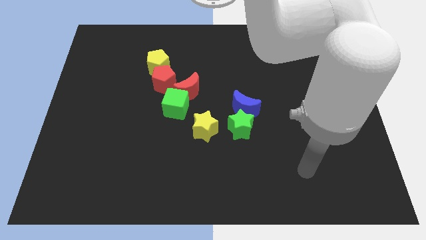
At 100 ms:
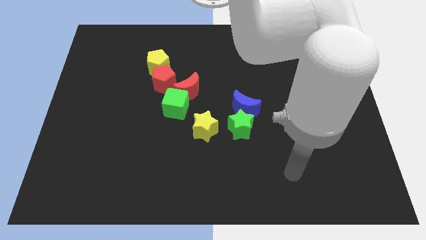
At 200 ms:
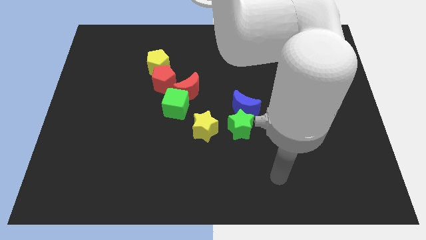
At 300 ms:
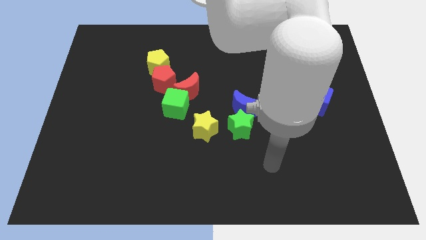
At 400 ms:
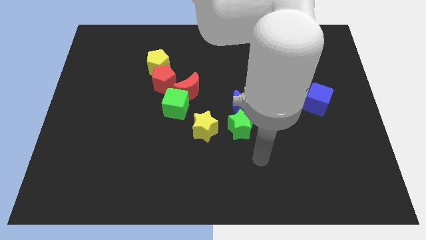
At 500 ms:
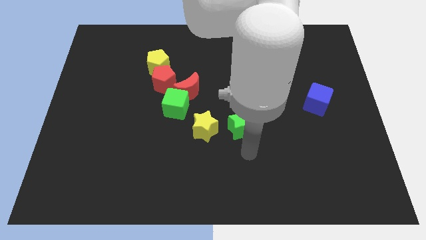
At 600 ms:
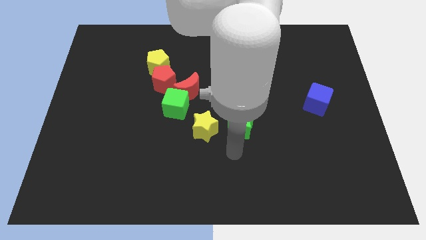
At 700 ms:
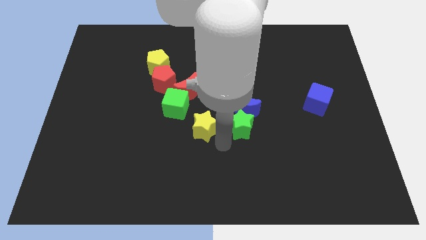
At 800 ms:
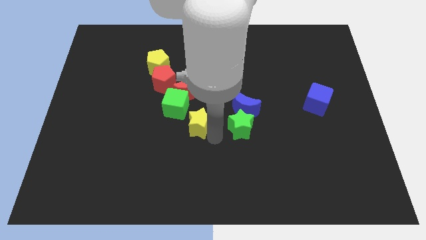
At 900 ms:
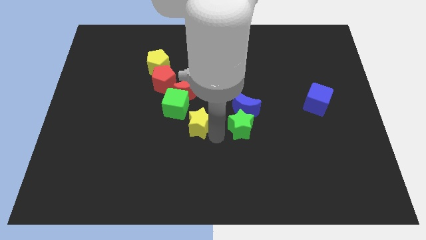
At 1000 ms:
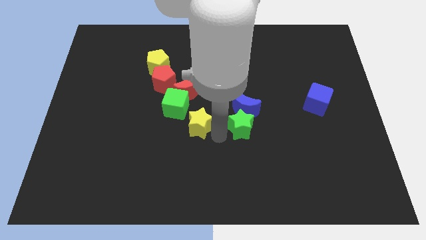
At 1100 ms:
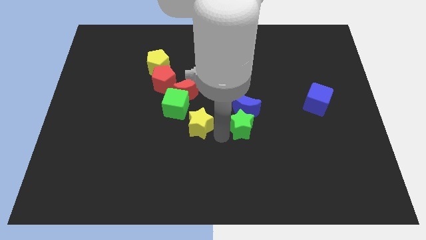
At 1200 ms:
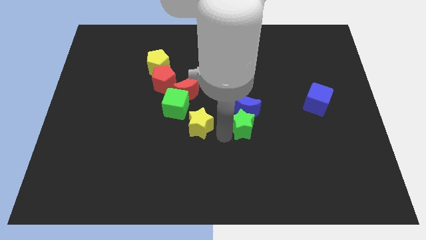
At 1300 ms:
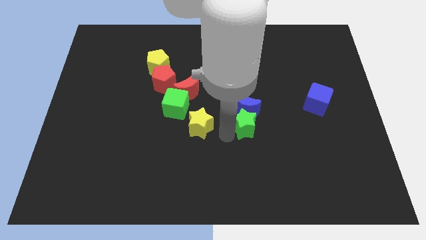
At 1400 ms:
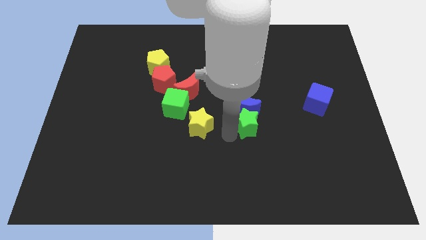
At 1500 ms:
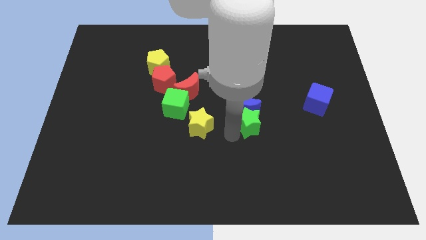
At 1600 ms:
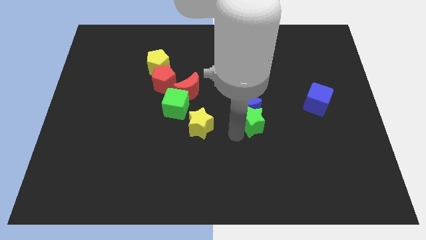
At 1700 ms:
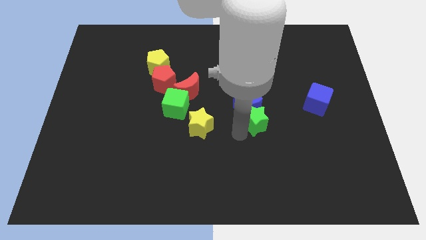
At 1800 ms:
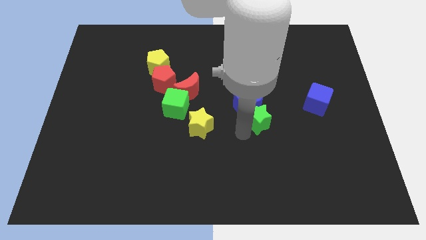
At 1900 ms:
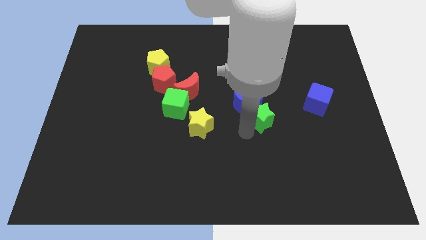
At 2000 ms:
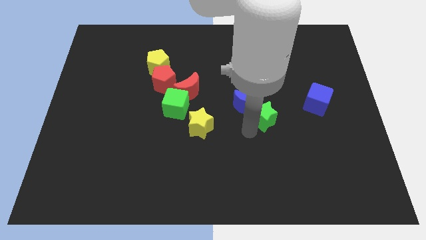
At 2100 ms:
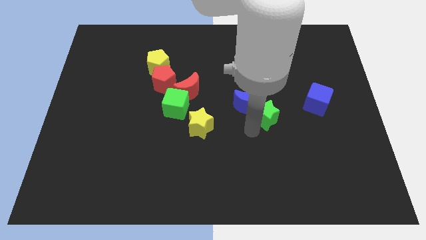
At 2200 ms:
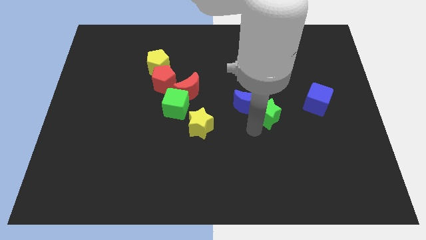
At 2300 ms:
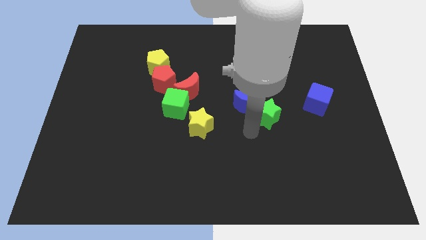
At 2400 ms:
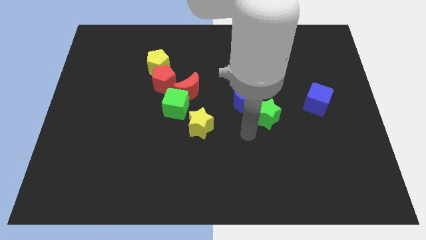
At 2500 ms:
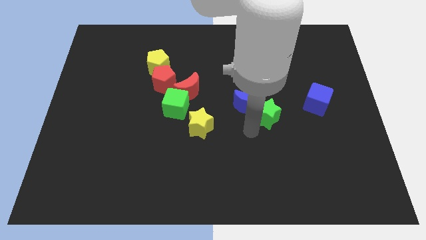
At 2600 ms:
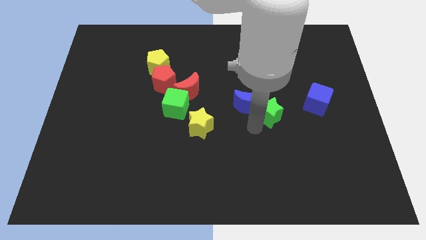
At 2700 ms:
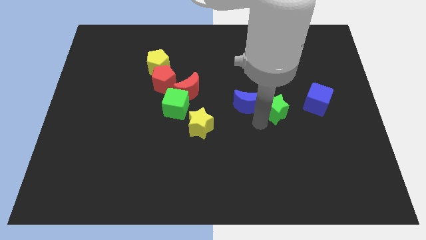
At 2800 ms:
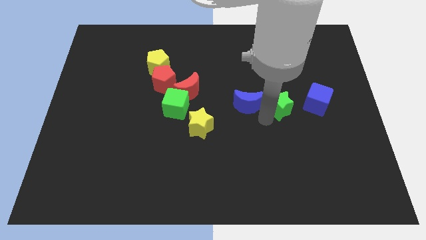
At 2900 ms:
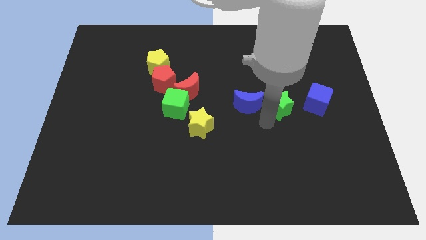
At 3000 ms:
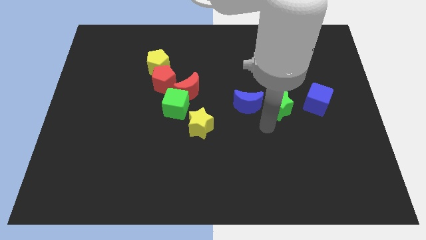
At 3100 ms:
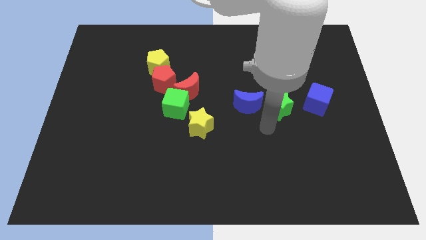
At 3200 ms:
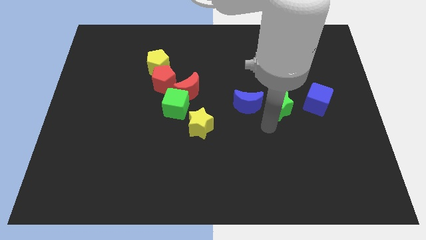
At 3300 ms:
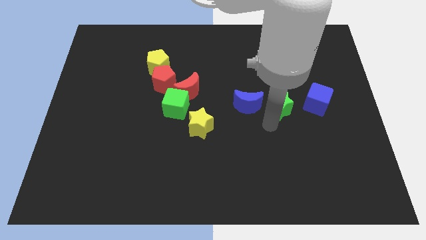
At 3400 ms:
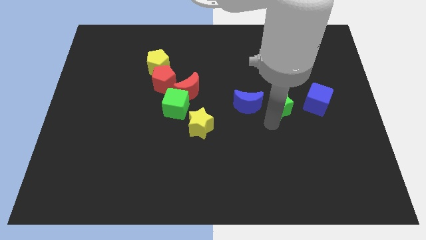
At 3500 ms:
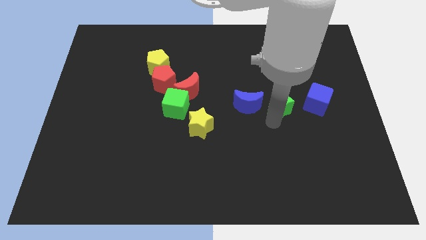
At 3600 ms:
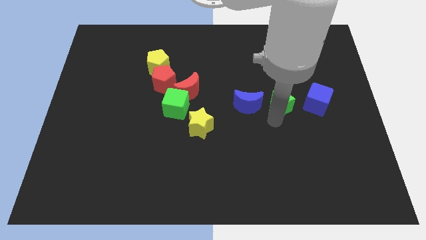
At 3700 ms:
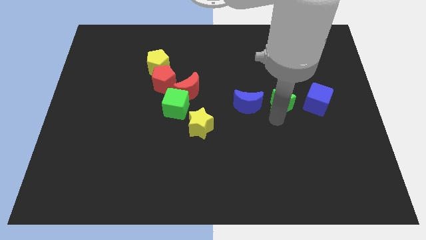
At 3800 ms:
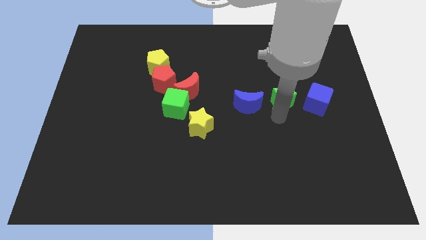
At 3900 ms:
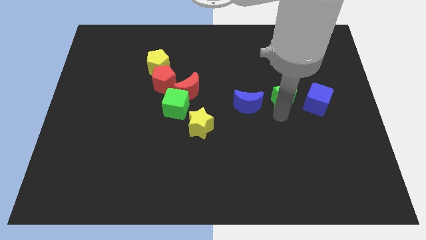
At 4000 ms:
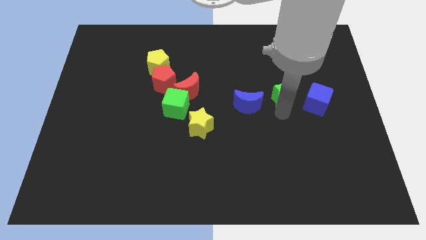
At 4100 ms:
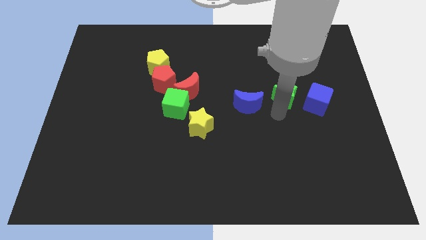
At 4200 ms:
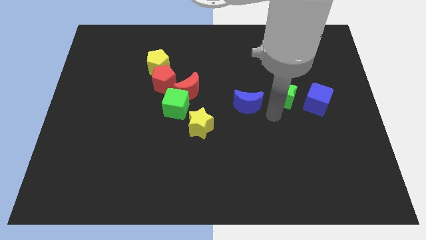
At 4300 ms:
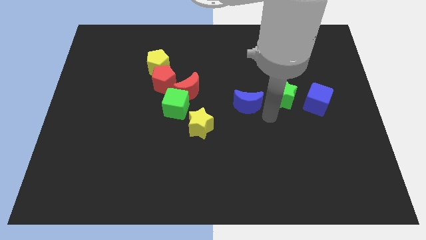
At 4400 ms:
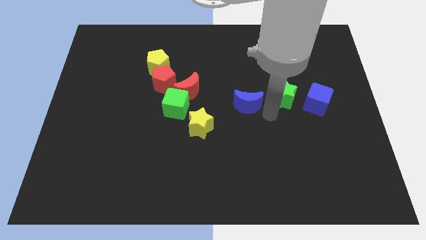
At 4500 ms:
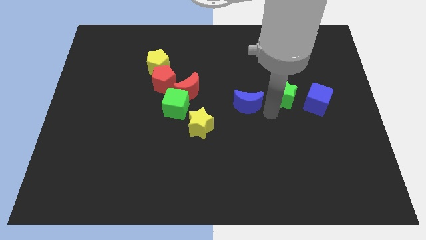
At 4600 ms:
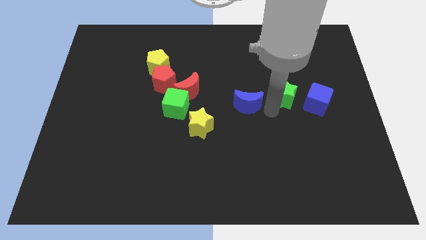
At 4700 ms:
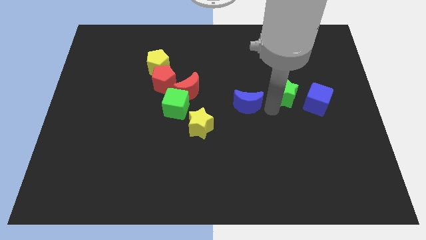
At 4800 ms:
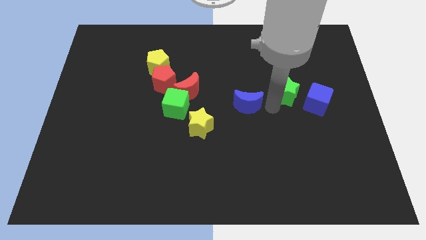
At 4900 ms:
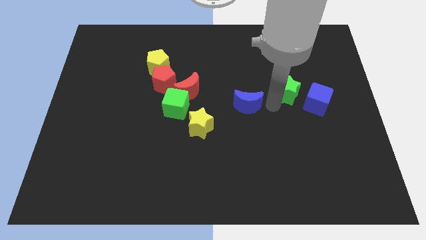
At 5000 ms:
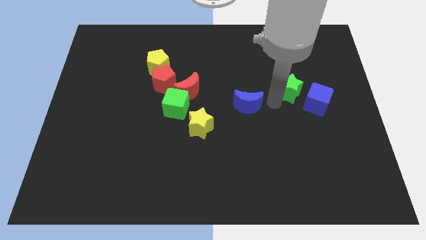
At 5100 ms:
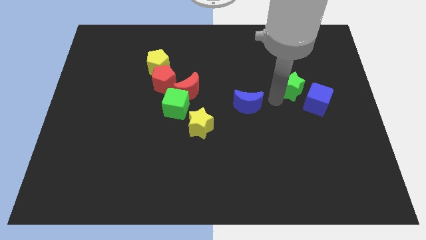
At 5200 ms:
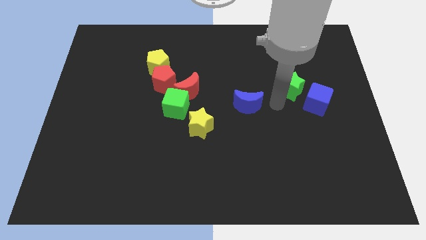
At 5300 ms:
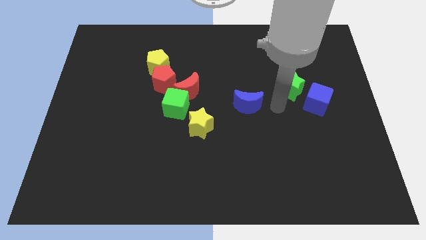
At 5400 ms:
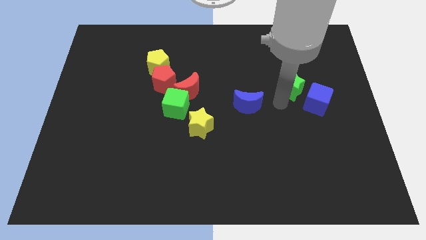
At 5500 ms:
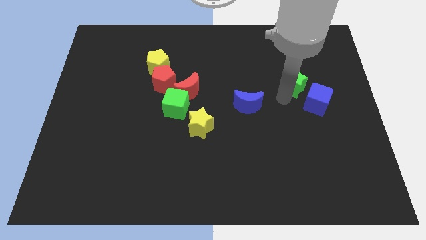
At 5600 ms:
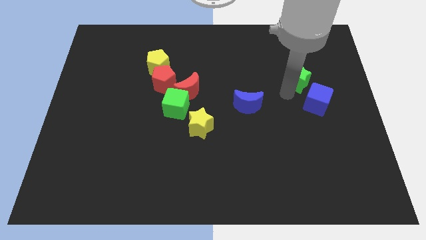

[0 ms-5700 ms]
move the green star up and to the right

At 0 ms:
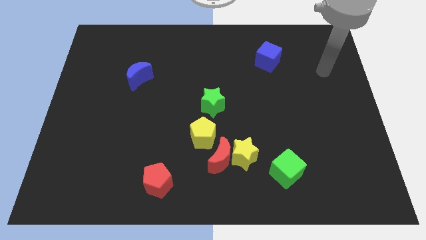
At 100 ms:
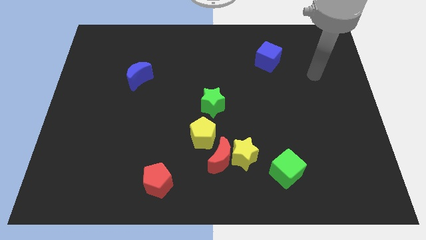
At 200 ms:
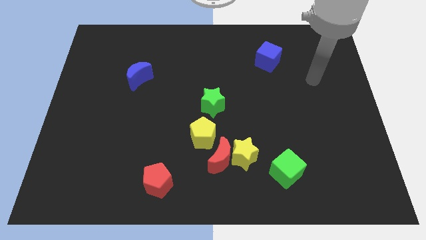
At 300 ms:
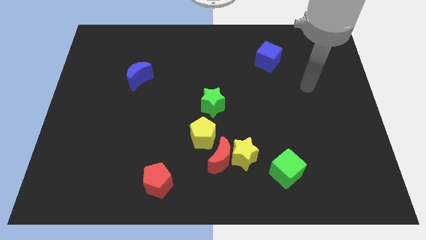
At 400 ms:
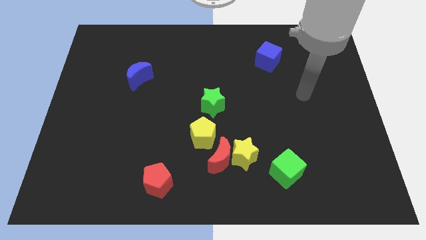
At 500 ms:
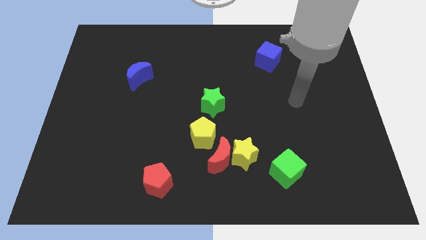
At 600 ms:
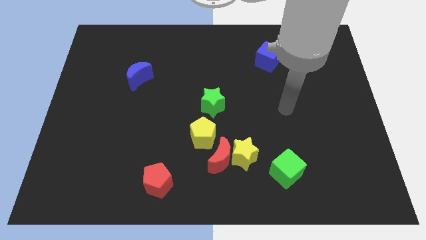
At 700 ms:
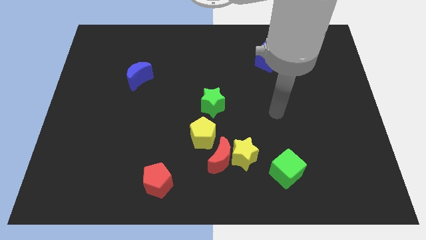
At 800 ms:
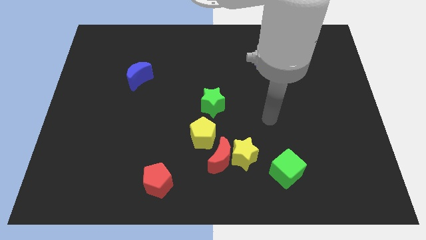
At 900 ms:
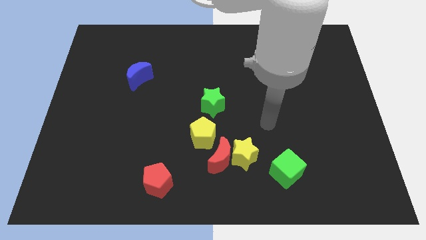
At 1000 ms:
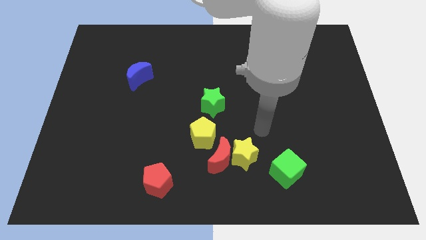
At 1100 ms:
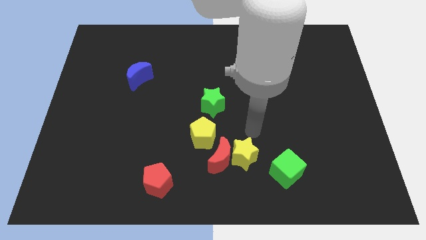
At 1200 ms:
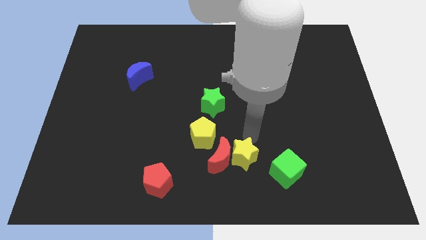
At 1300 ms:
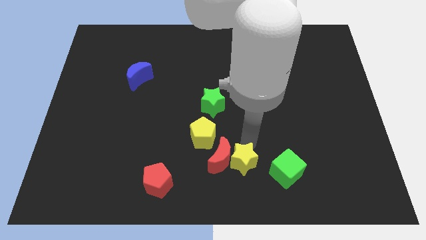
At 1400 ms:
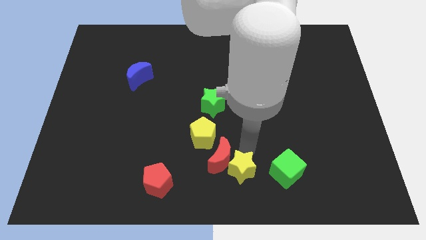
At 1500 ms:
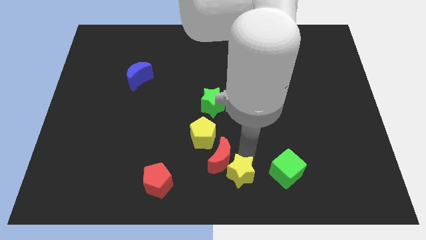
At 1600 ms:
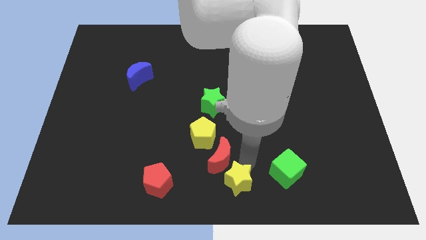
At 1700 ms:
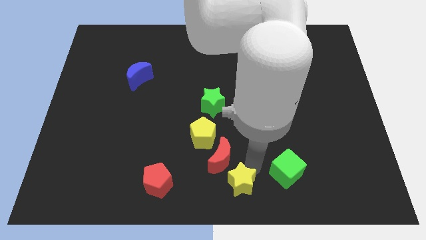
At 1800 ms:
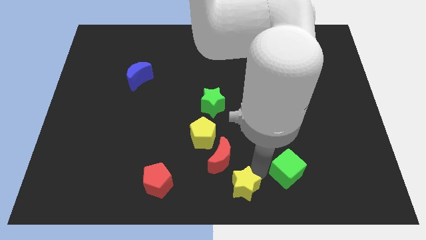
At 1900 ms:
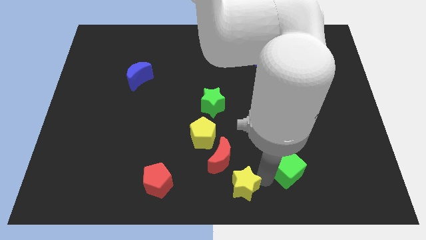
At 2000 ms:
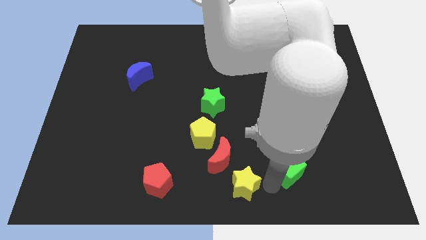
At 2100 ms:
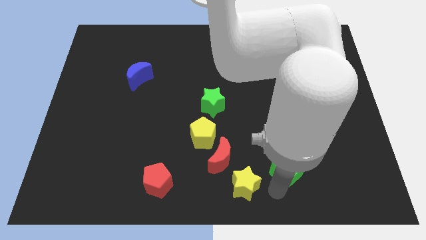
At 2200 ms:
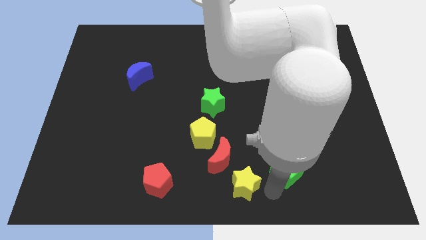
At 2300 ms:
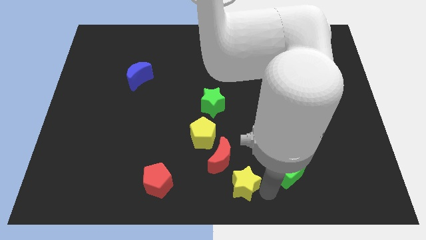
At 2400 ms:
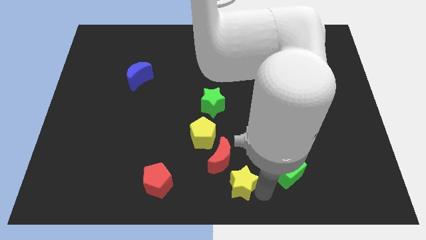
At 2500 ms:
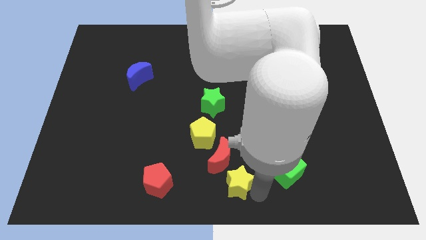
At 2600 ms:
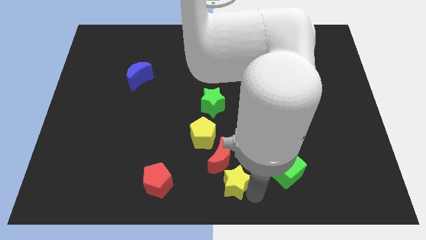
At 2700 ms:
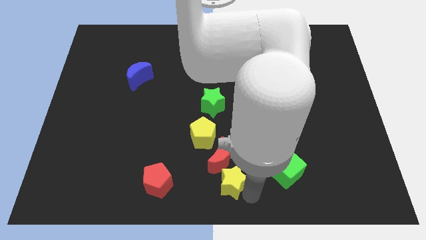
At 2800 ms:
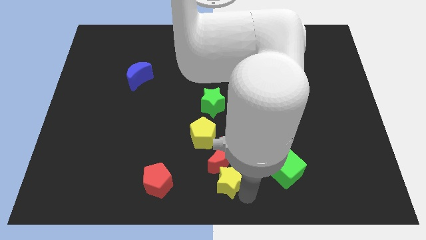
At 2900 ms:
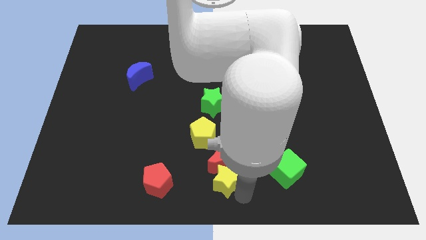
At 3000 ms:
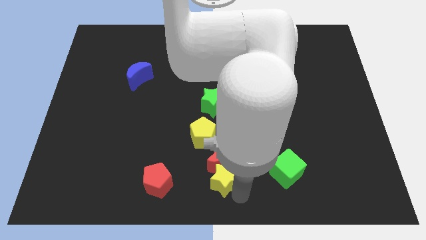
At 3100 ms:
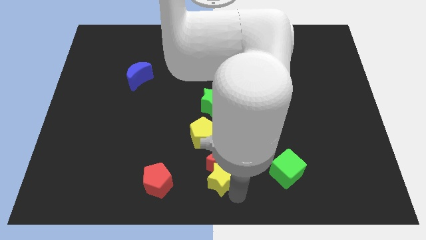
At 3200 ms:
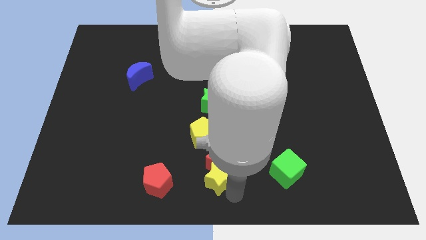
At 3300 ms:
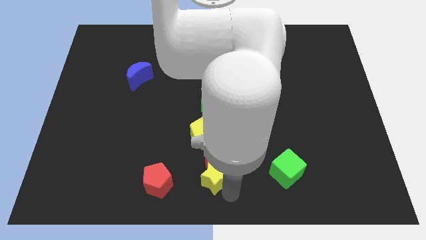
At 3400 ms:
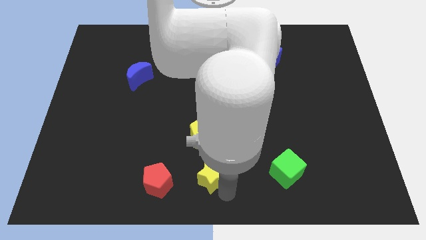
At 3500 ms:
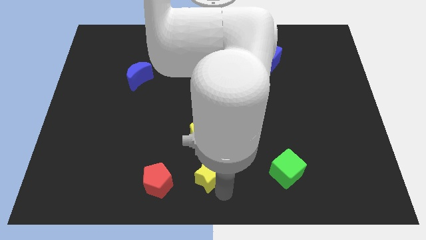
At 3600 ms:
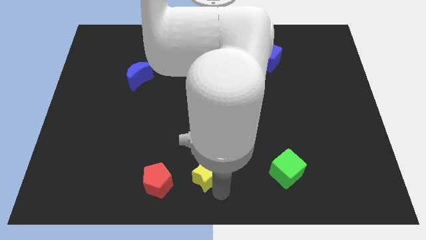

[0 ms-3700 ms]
move the yellow star a little to the left
